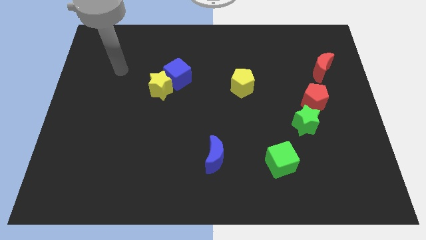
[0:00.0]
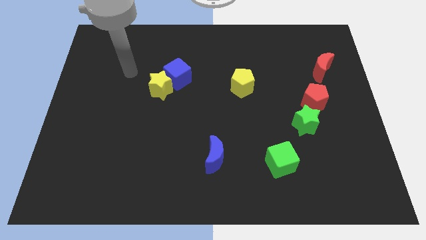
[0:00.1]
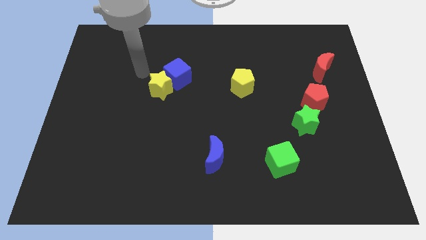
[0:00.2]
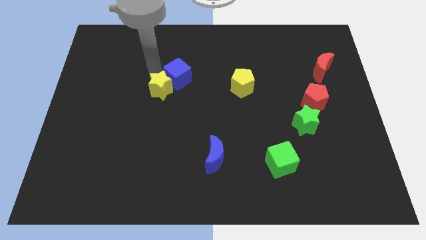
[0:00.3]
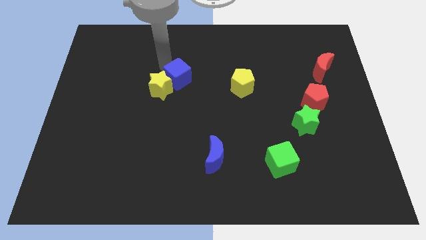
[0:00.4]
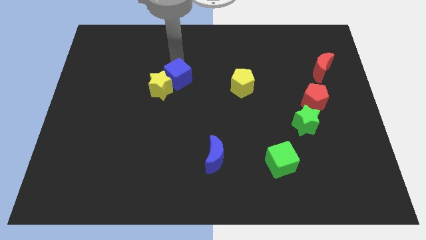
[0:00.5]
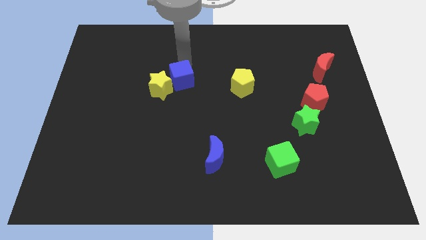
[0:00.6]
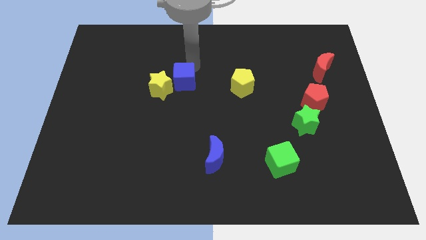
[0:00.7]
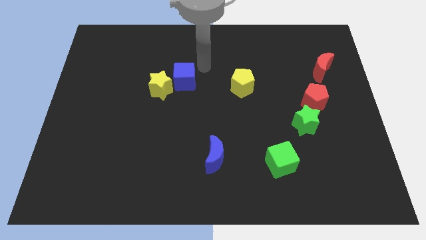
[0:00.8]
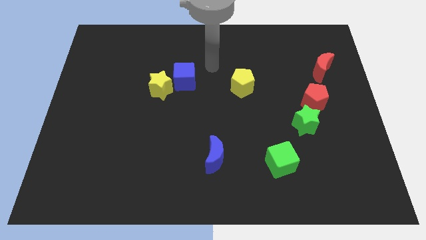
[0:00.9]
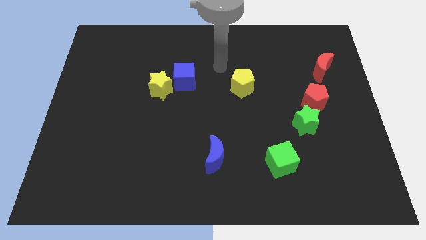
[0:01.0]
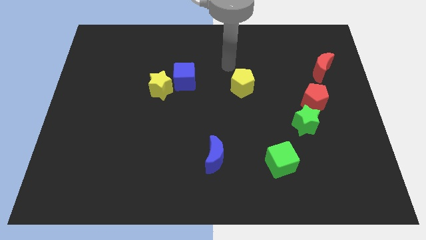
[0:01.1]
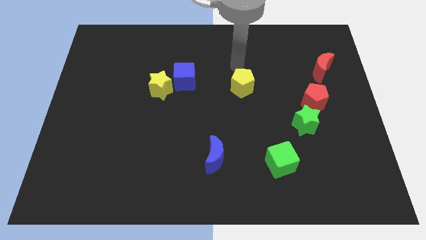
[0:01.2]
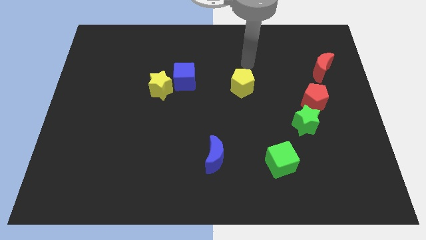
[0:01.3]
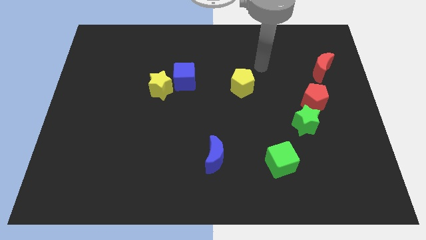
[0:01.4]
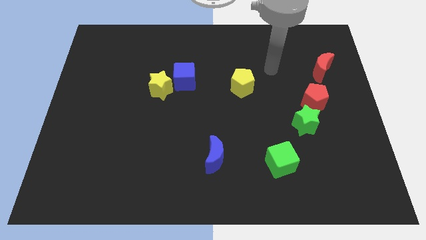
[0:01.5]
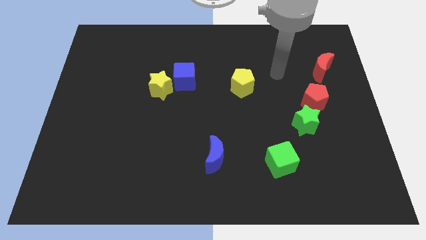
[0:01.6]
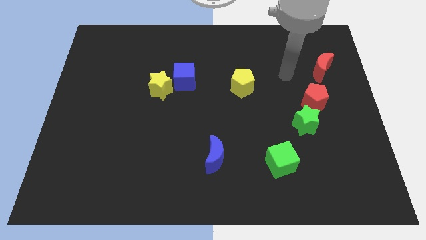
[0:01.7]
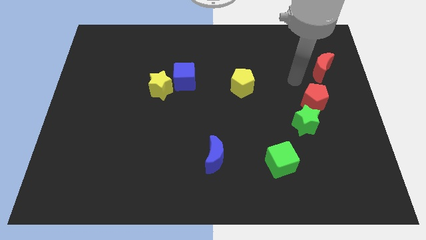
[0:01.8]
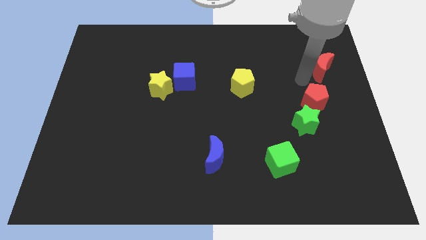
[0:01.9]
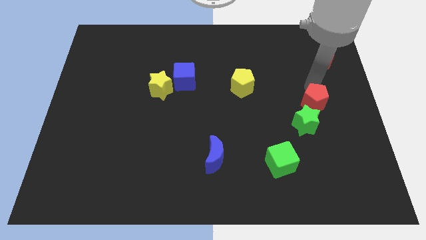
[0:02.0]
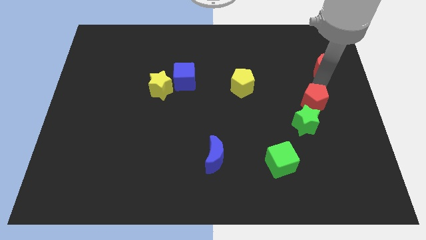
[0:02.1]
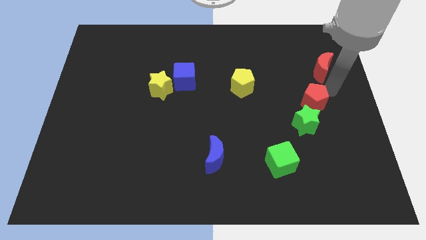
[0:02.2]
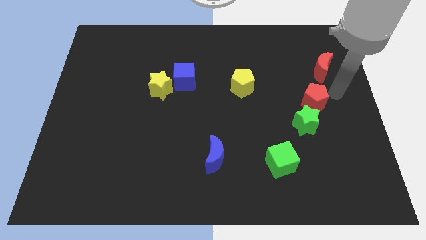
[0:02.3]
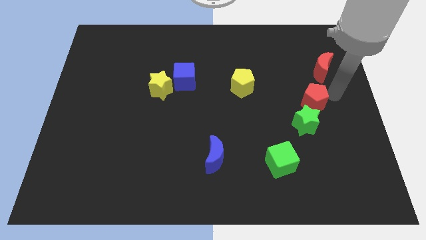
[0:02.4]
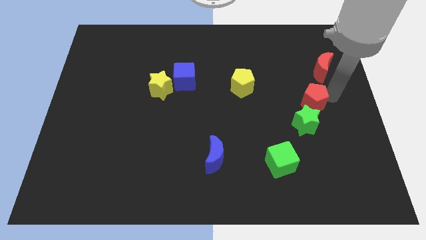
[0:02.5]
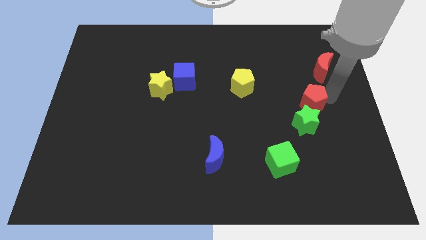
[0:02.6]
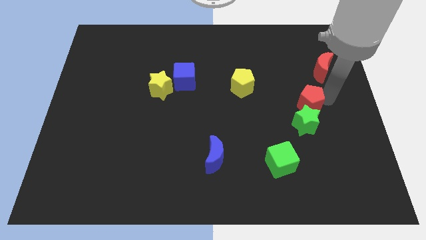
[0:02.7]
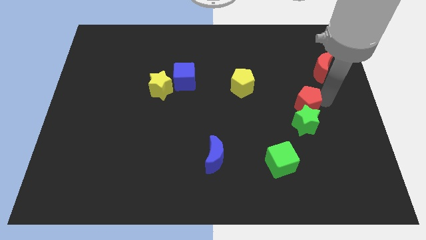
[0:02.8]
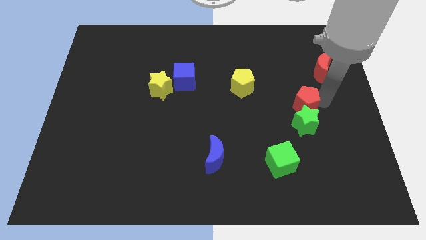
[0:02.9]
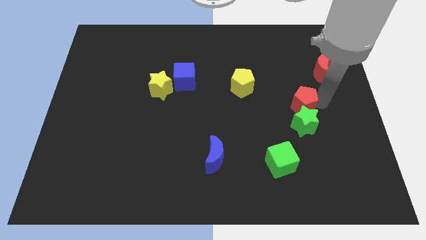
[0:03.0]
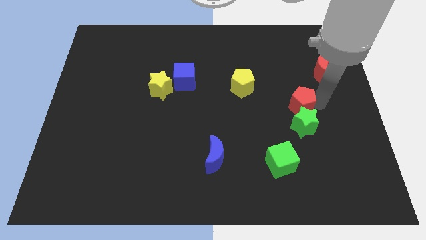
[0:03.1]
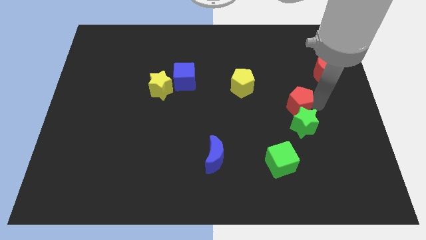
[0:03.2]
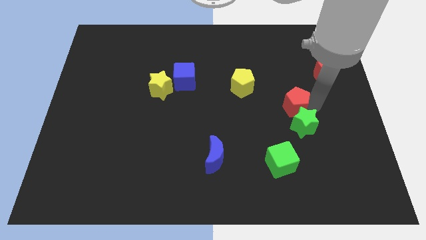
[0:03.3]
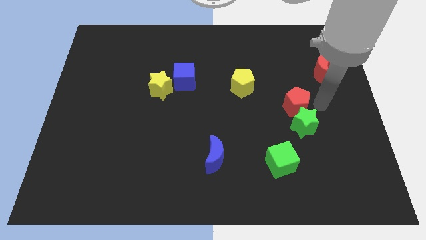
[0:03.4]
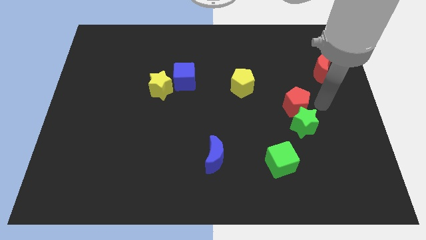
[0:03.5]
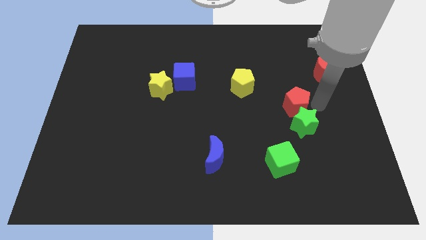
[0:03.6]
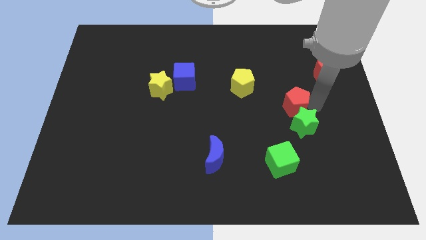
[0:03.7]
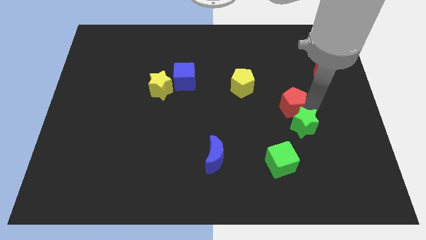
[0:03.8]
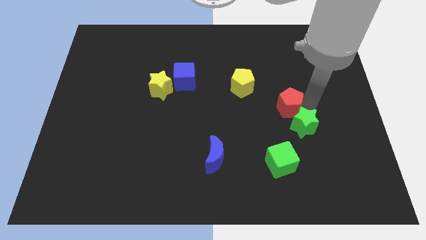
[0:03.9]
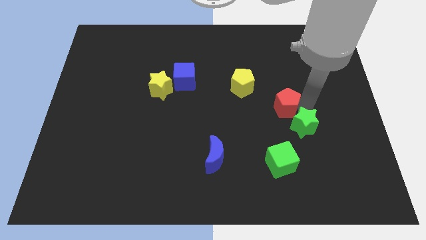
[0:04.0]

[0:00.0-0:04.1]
push the red pentagon left a bit

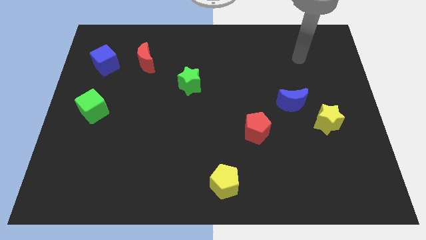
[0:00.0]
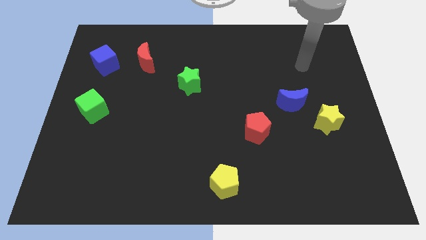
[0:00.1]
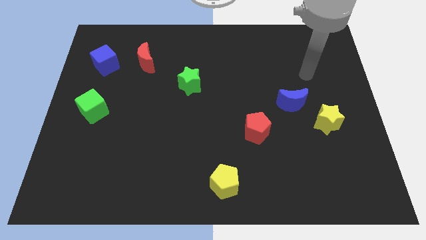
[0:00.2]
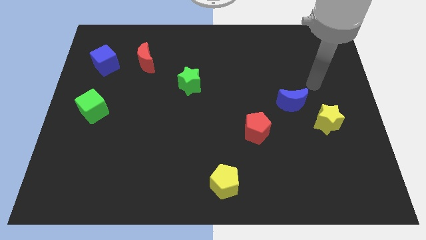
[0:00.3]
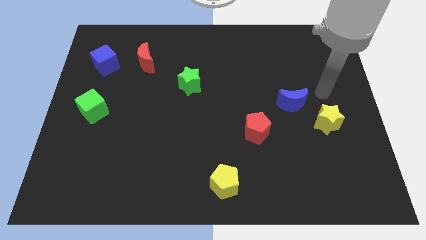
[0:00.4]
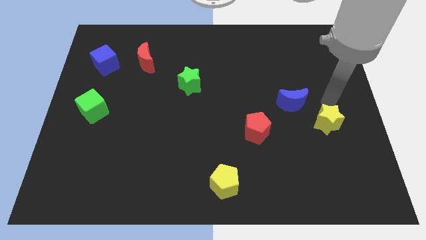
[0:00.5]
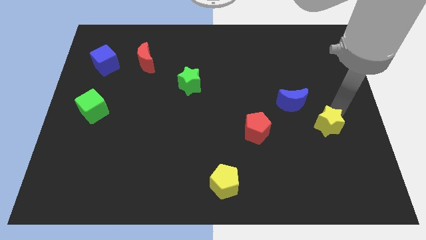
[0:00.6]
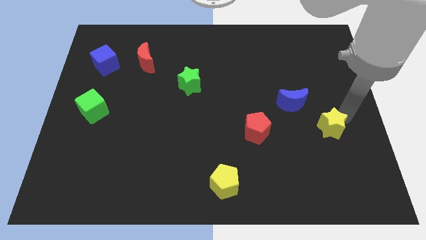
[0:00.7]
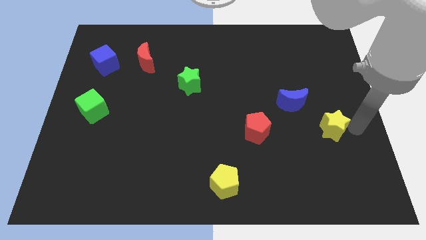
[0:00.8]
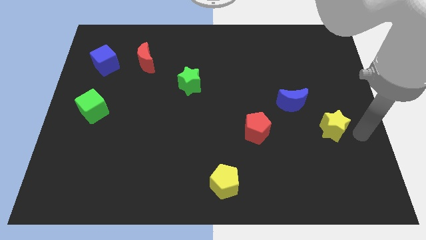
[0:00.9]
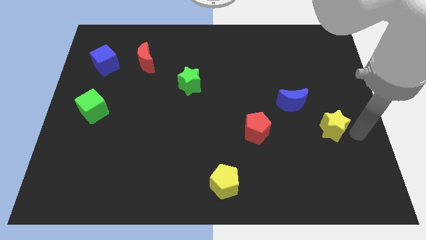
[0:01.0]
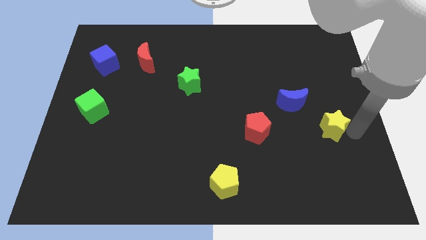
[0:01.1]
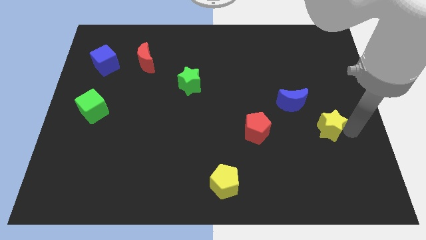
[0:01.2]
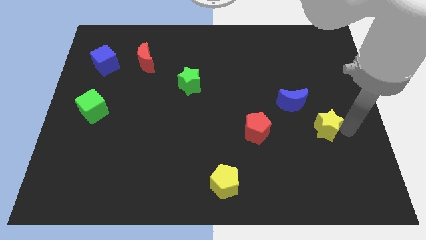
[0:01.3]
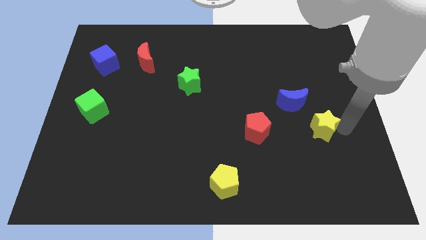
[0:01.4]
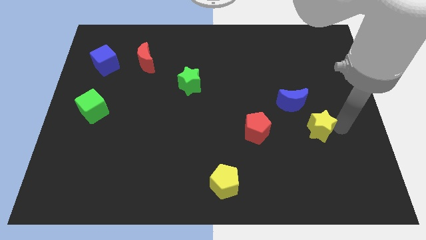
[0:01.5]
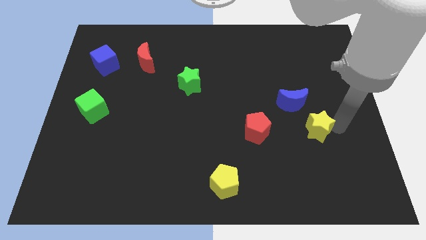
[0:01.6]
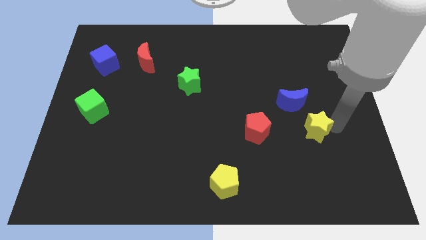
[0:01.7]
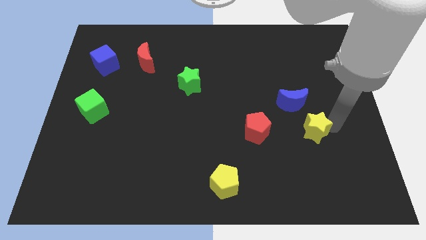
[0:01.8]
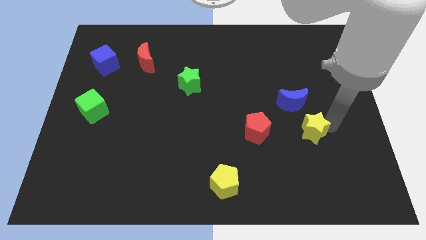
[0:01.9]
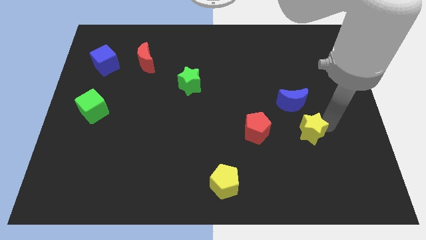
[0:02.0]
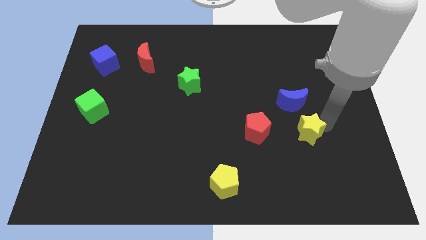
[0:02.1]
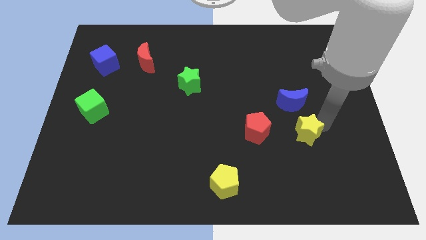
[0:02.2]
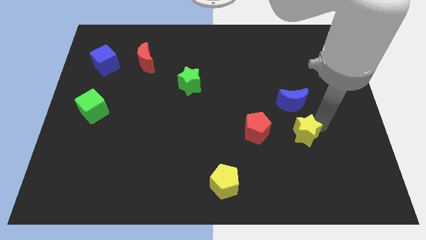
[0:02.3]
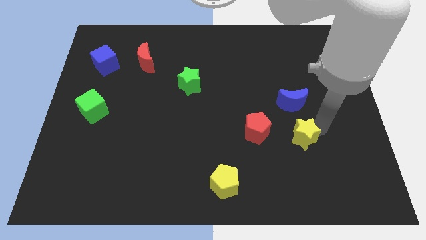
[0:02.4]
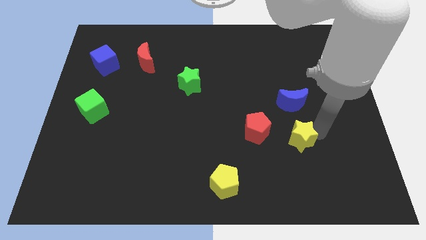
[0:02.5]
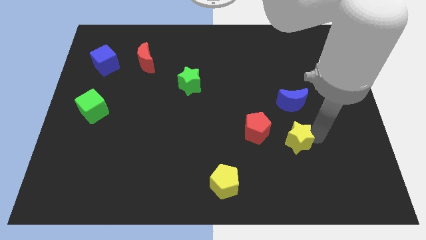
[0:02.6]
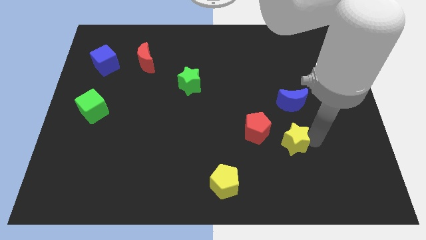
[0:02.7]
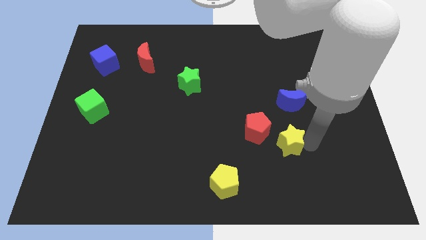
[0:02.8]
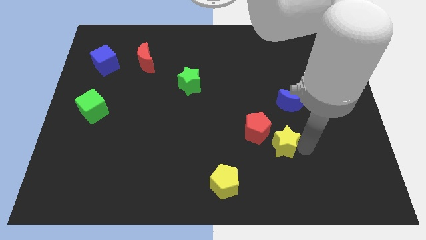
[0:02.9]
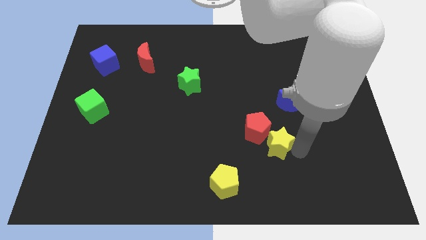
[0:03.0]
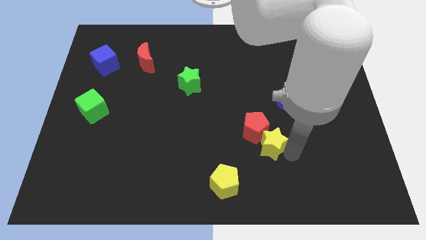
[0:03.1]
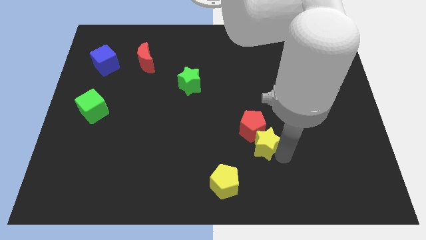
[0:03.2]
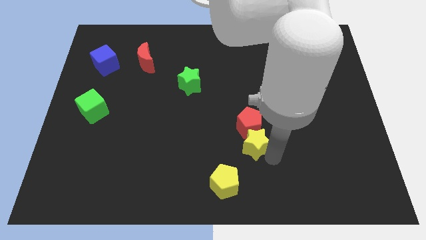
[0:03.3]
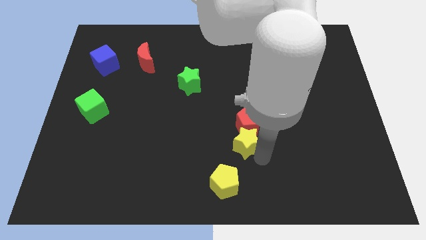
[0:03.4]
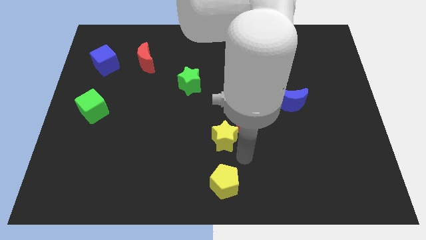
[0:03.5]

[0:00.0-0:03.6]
slide the yellow star left

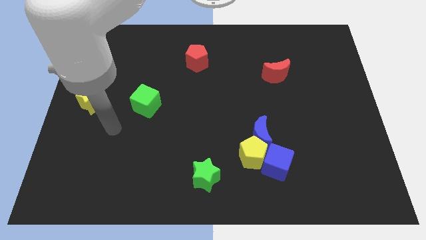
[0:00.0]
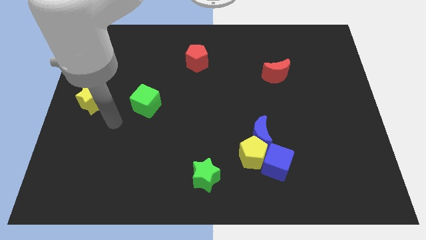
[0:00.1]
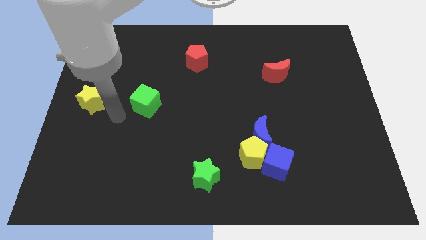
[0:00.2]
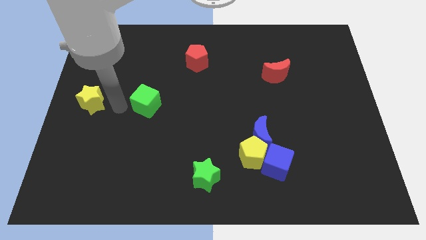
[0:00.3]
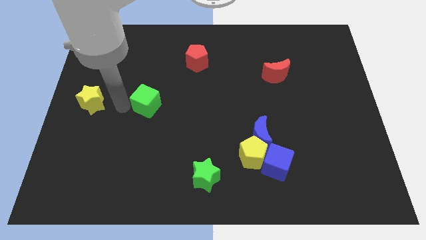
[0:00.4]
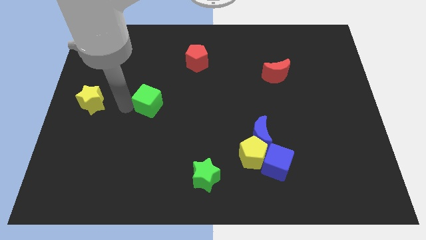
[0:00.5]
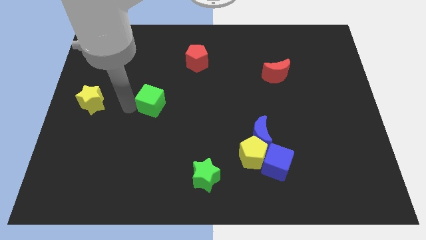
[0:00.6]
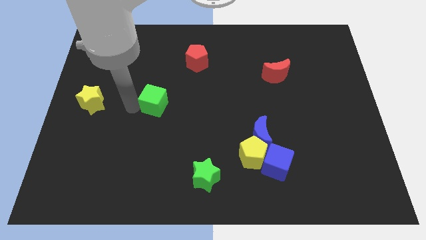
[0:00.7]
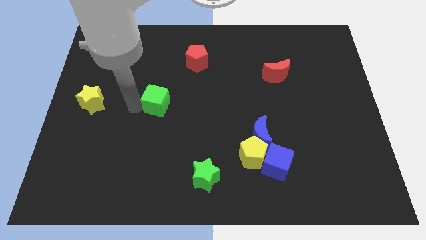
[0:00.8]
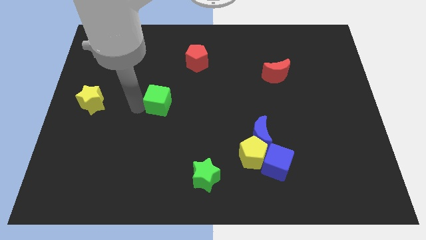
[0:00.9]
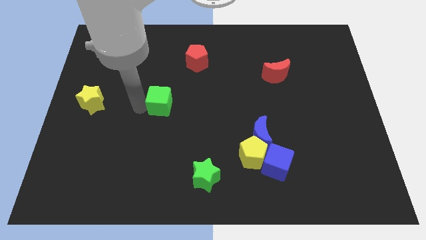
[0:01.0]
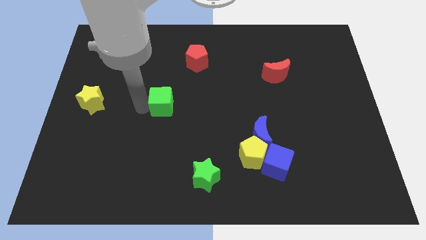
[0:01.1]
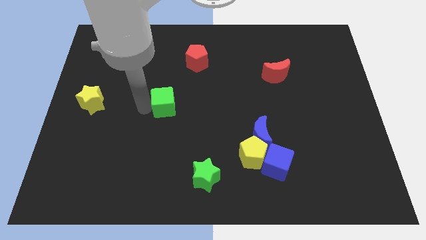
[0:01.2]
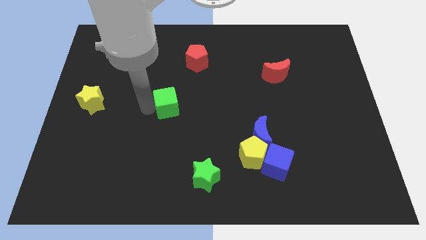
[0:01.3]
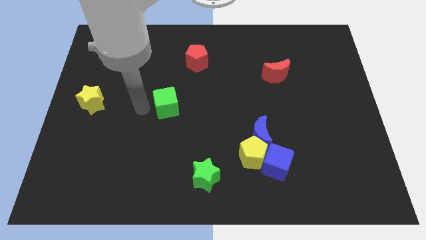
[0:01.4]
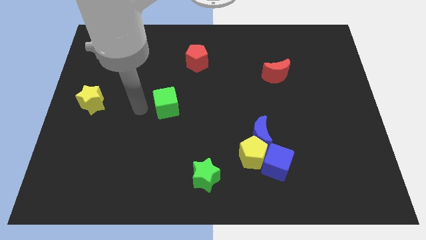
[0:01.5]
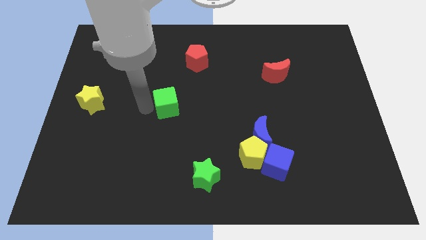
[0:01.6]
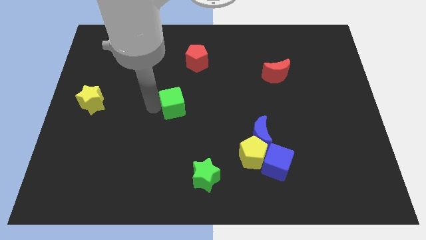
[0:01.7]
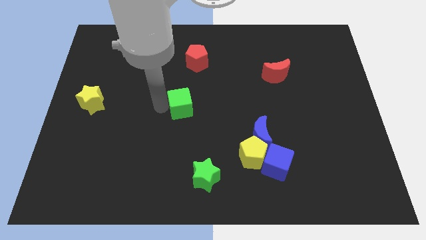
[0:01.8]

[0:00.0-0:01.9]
slide the green cube a little to the right
